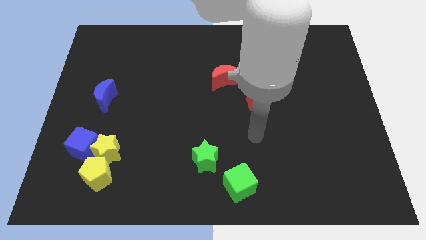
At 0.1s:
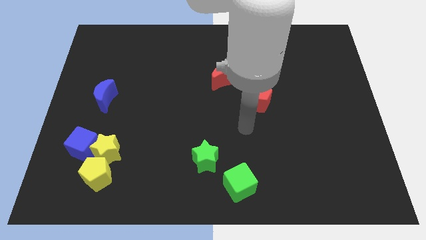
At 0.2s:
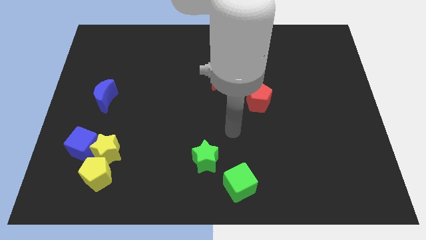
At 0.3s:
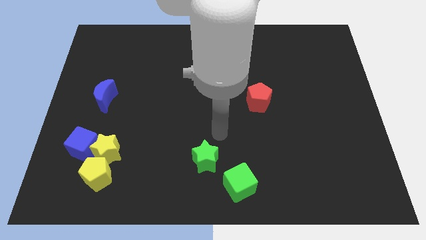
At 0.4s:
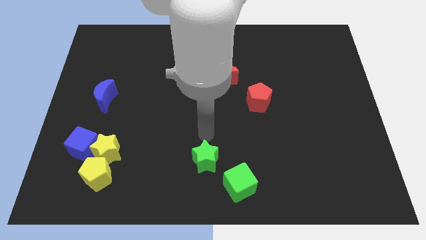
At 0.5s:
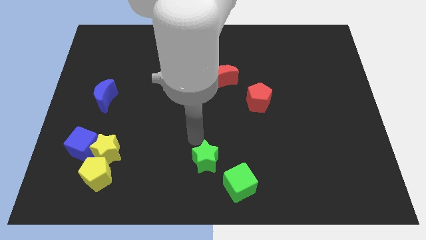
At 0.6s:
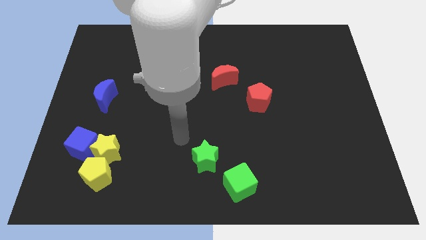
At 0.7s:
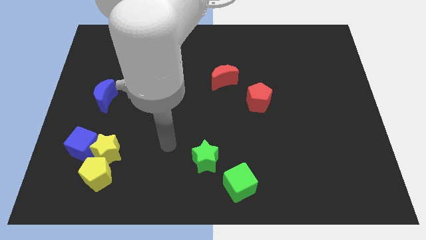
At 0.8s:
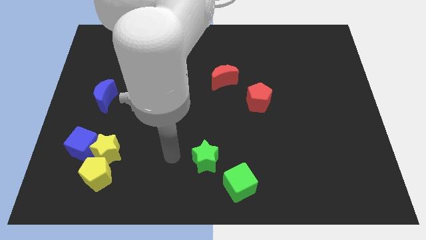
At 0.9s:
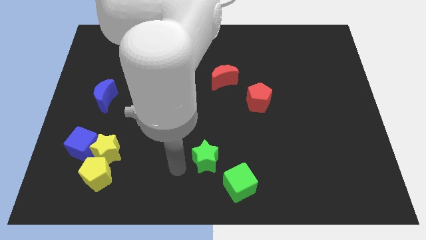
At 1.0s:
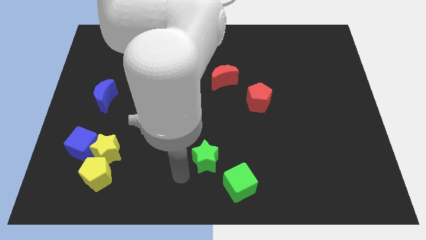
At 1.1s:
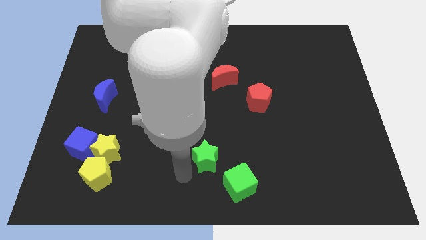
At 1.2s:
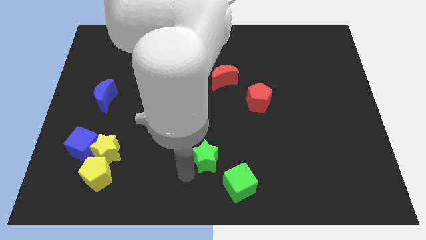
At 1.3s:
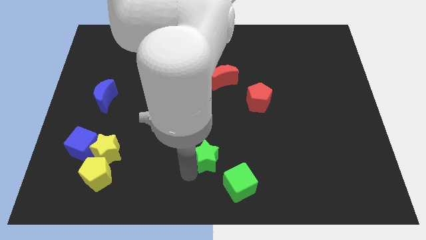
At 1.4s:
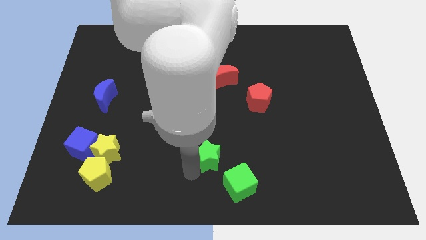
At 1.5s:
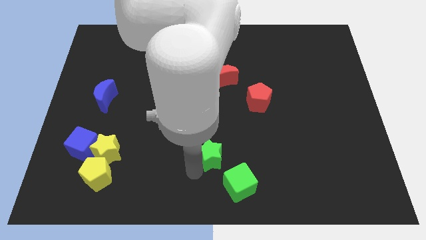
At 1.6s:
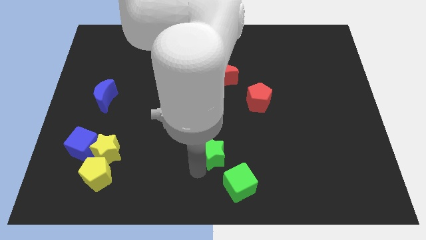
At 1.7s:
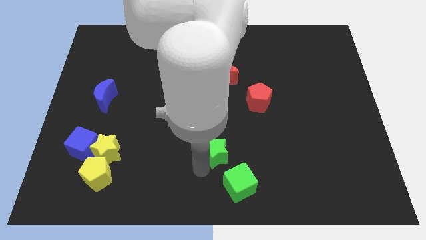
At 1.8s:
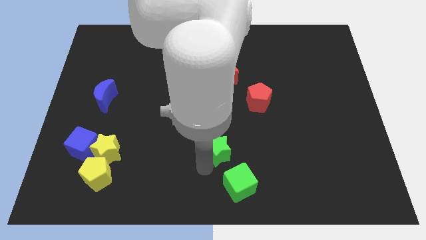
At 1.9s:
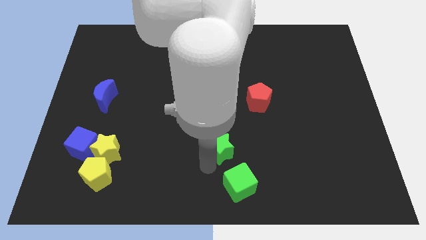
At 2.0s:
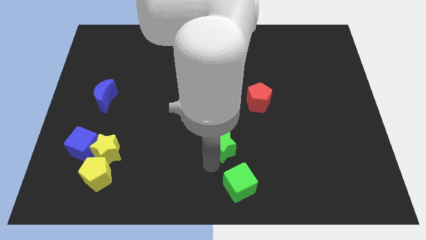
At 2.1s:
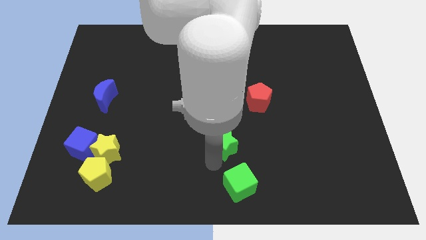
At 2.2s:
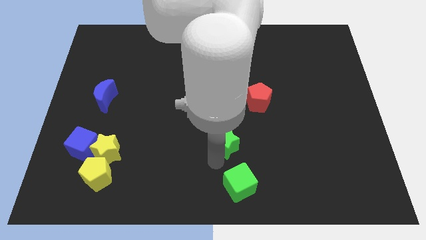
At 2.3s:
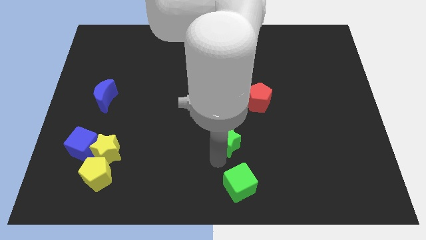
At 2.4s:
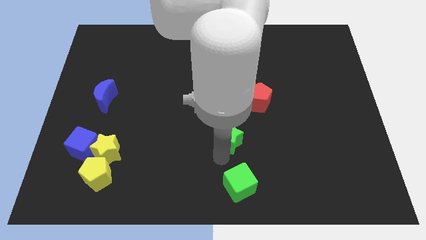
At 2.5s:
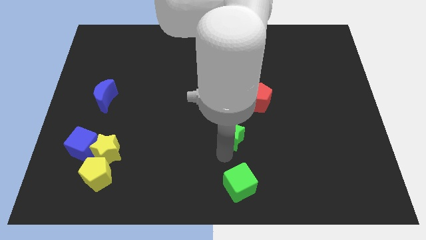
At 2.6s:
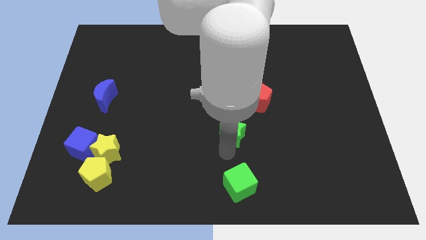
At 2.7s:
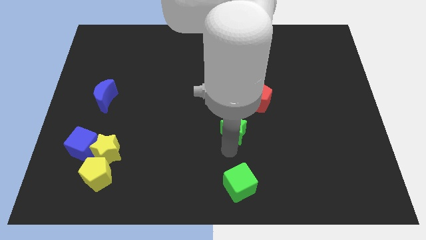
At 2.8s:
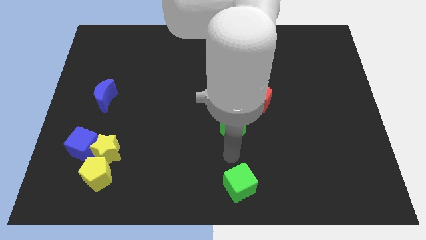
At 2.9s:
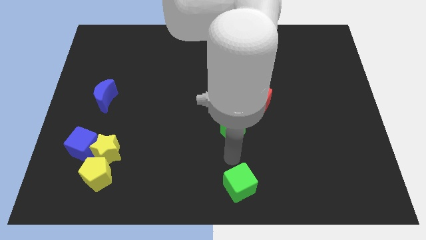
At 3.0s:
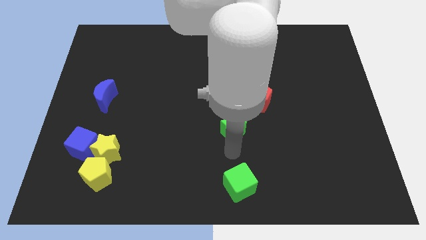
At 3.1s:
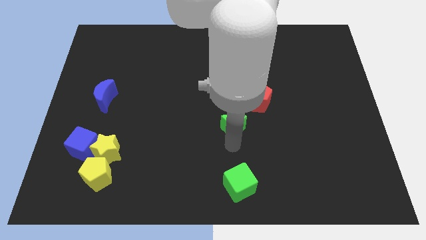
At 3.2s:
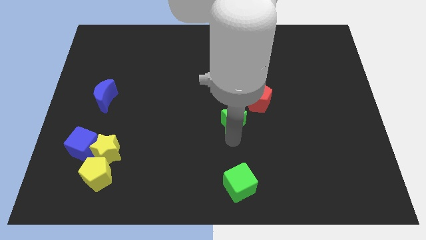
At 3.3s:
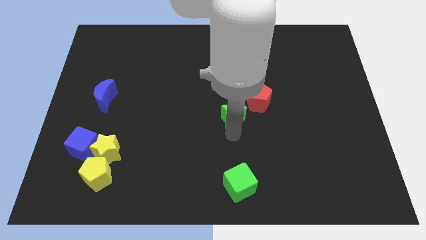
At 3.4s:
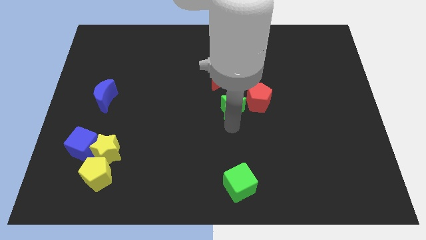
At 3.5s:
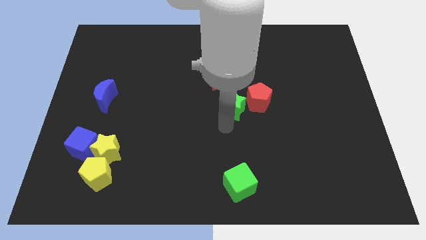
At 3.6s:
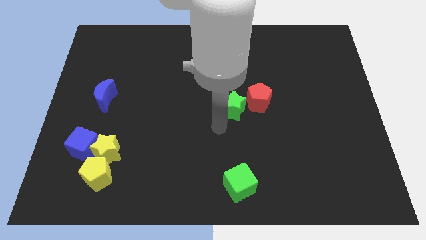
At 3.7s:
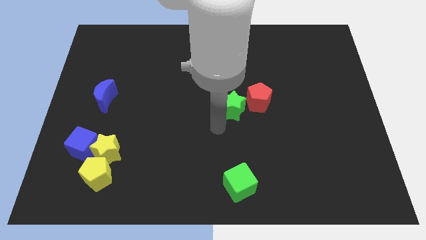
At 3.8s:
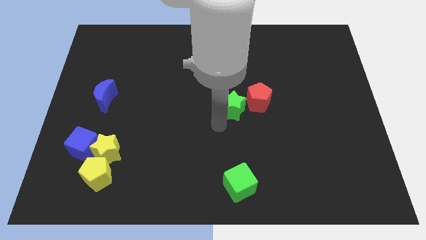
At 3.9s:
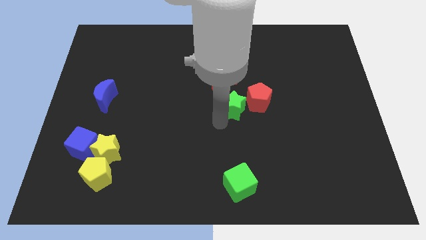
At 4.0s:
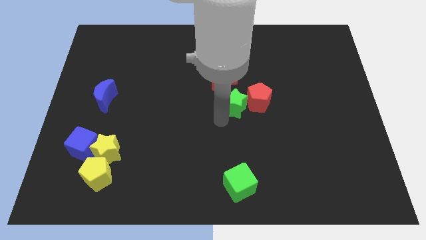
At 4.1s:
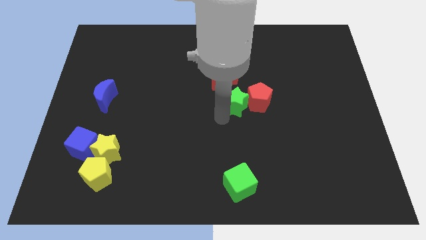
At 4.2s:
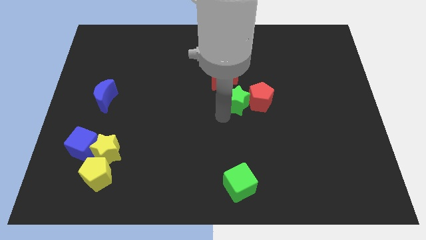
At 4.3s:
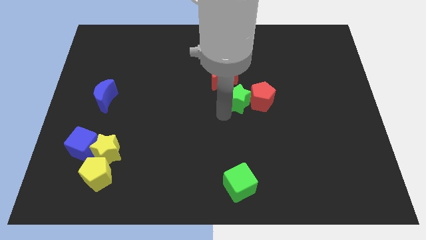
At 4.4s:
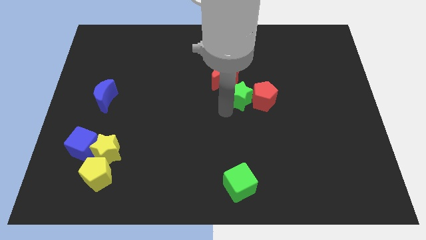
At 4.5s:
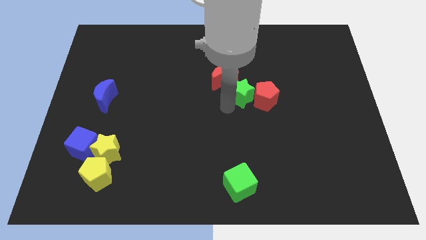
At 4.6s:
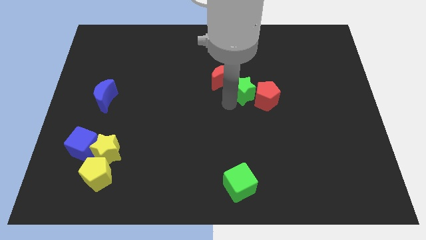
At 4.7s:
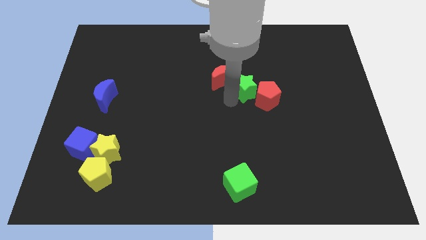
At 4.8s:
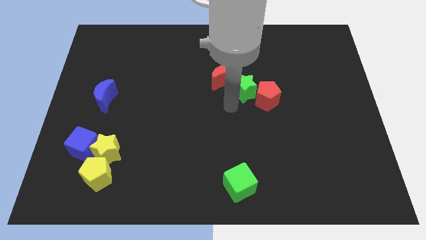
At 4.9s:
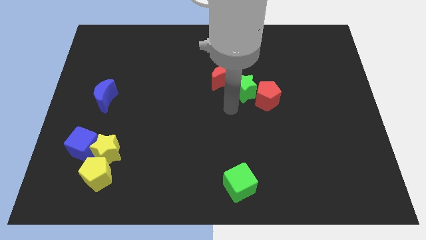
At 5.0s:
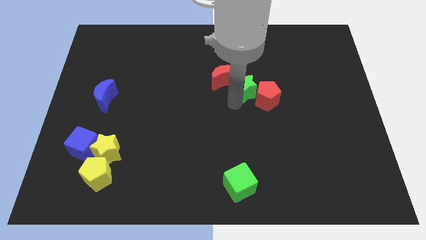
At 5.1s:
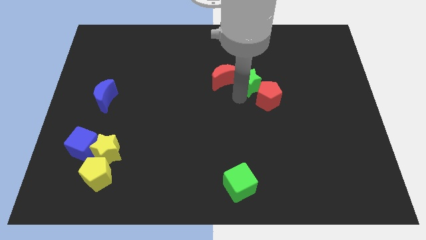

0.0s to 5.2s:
slide the green star to the top side of the red pentagon

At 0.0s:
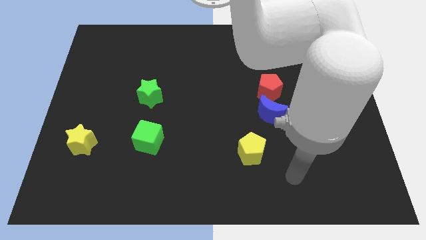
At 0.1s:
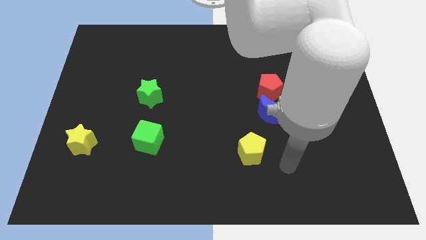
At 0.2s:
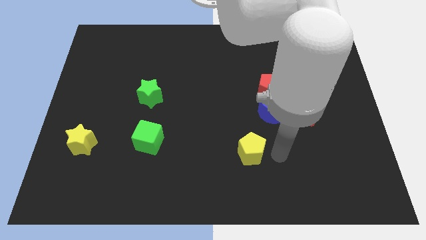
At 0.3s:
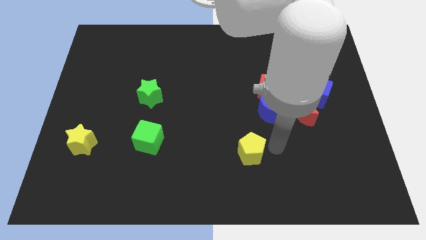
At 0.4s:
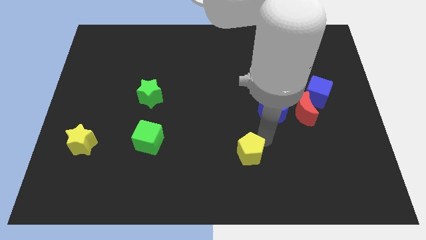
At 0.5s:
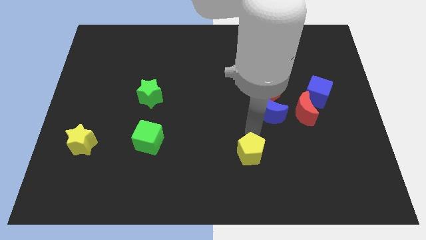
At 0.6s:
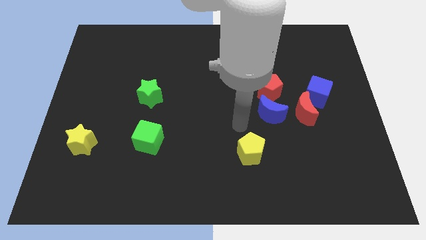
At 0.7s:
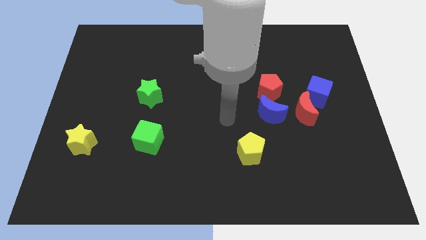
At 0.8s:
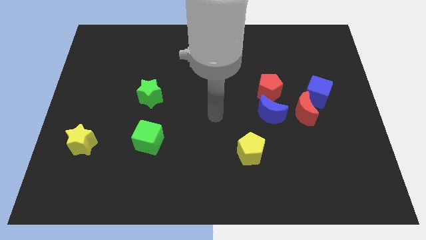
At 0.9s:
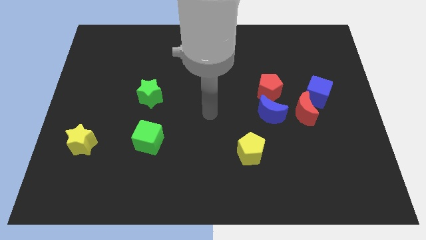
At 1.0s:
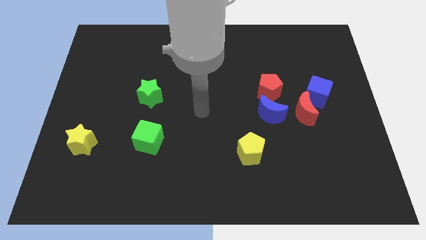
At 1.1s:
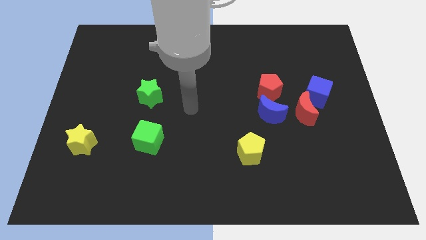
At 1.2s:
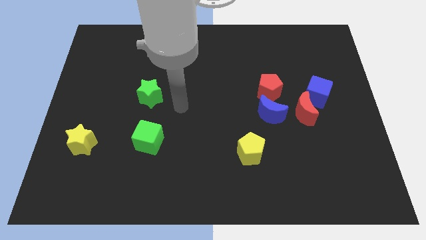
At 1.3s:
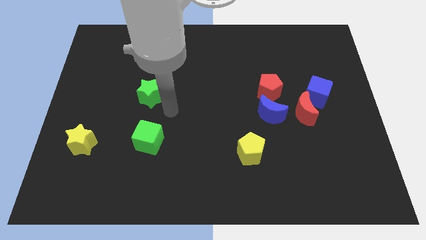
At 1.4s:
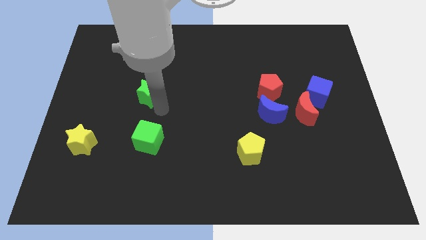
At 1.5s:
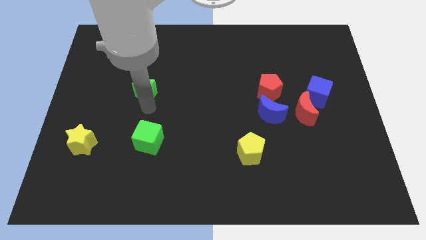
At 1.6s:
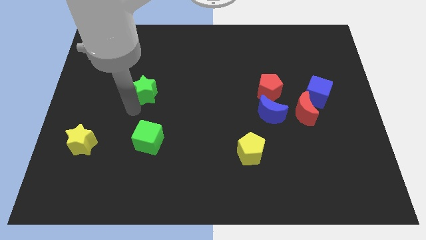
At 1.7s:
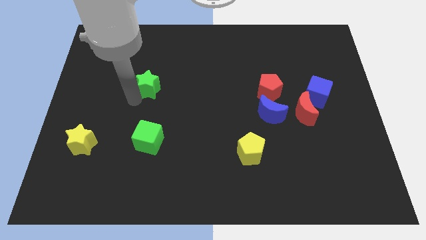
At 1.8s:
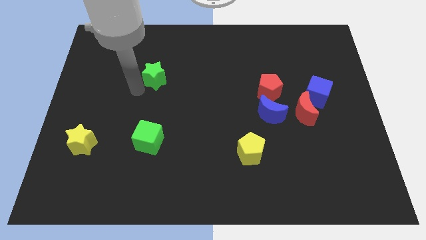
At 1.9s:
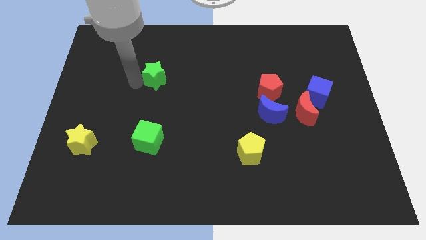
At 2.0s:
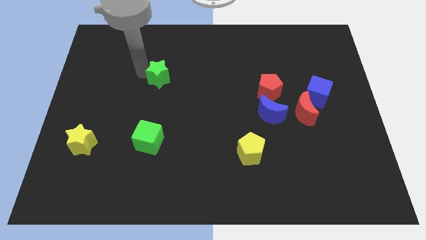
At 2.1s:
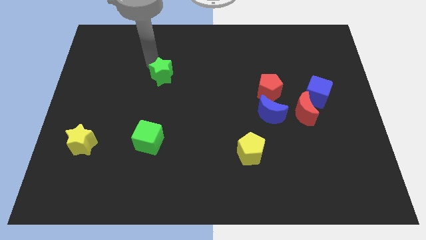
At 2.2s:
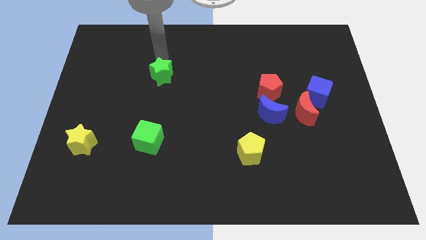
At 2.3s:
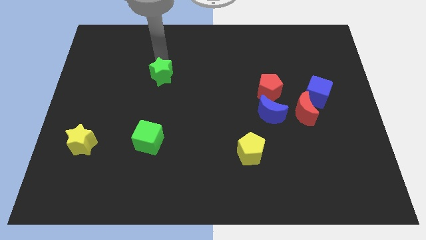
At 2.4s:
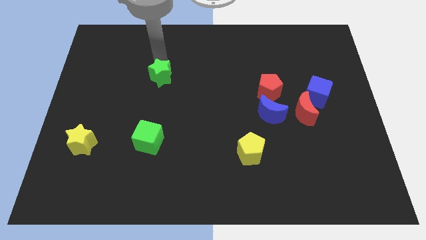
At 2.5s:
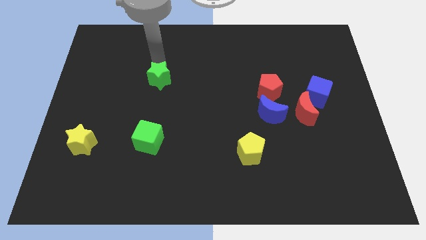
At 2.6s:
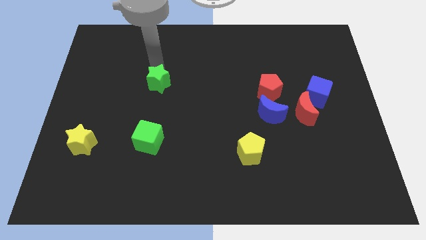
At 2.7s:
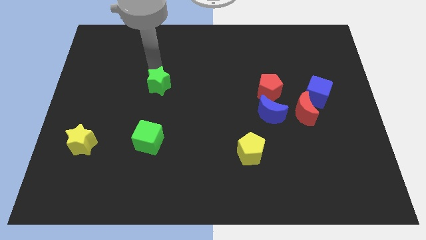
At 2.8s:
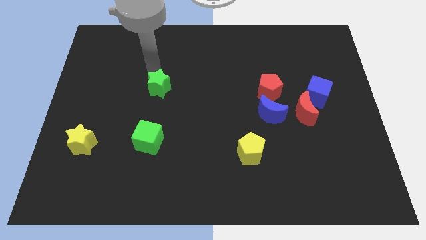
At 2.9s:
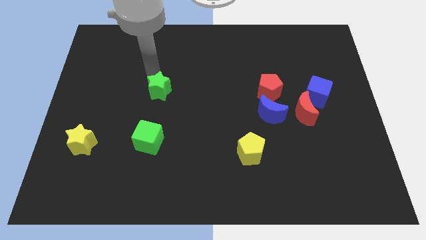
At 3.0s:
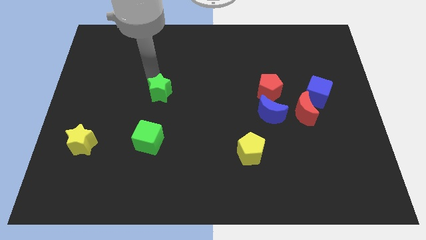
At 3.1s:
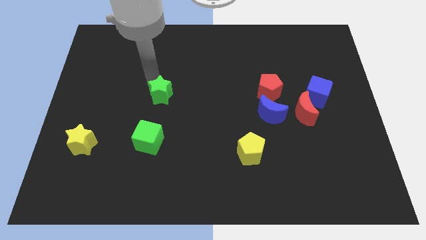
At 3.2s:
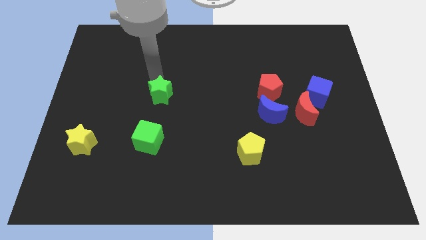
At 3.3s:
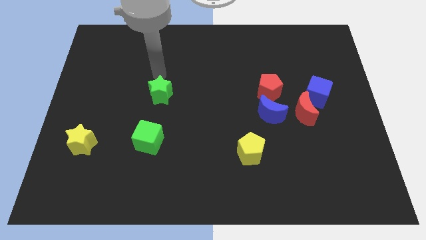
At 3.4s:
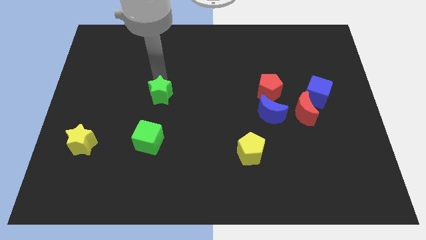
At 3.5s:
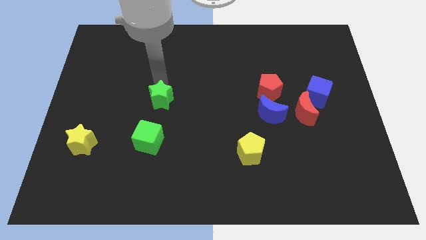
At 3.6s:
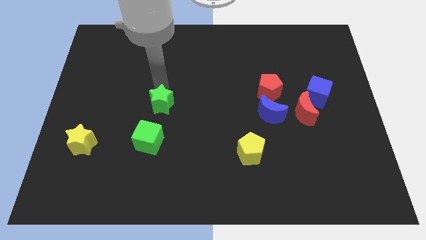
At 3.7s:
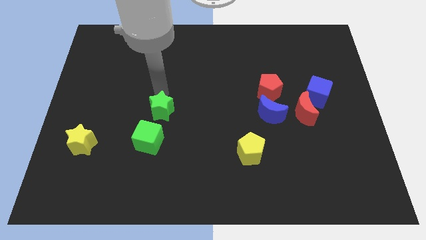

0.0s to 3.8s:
push the green star to the top right side of the green cube
